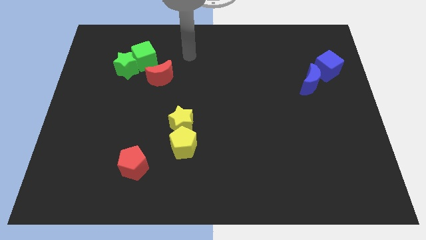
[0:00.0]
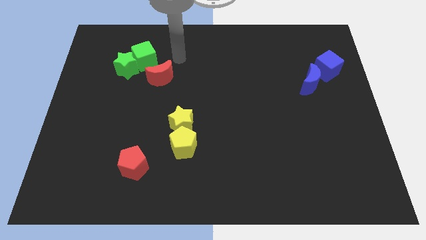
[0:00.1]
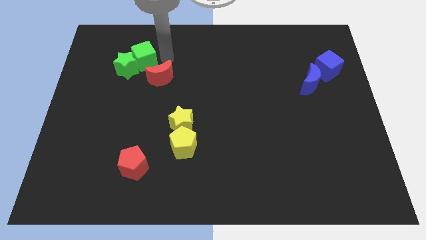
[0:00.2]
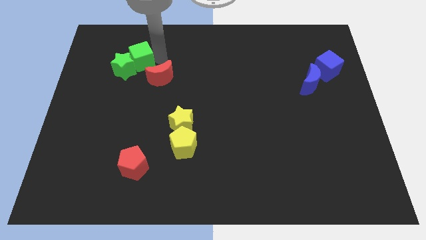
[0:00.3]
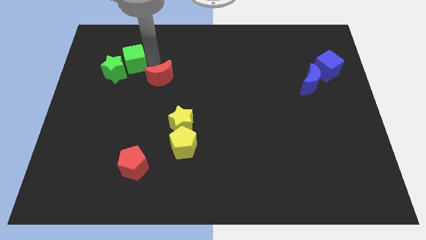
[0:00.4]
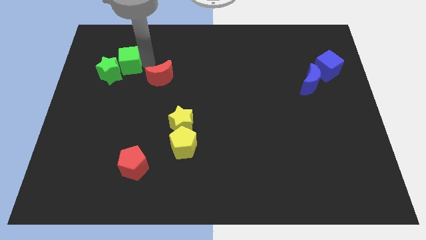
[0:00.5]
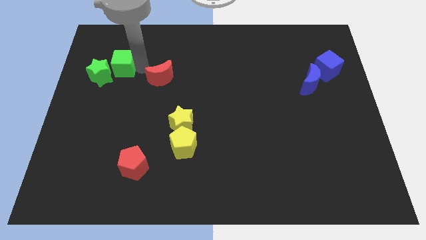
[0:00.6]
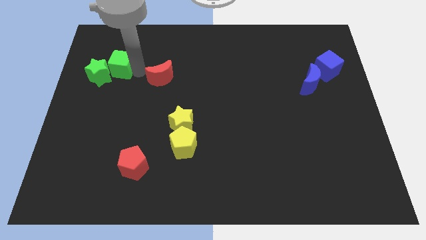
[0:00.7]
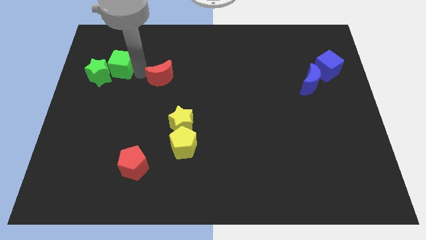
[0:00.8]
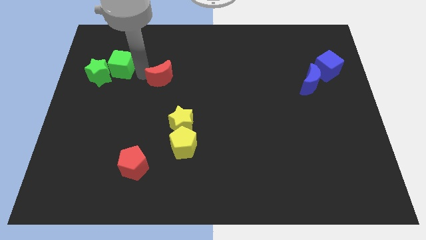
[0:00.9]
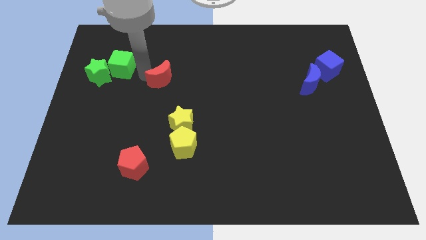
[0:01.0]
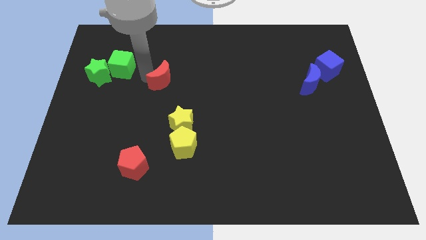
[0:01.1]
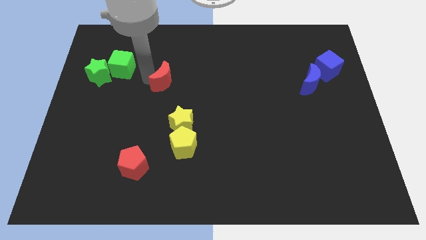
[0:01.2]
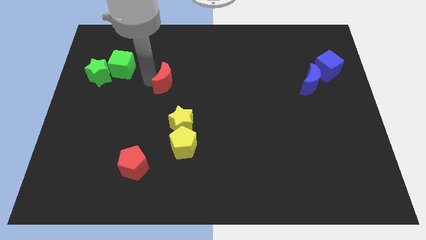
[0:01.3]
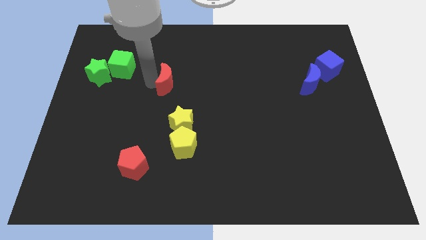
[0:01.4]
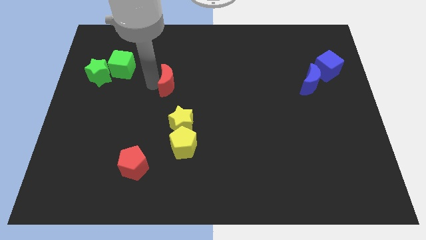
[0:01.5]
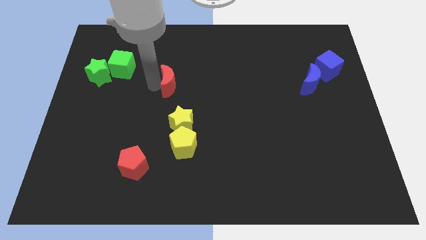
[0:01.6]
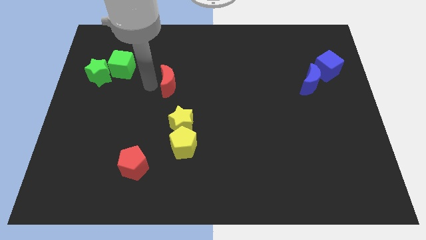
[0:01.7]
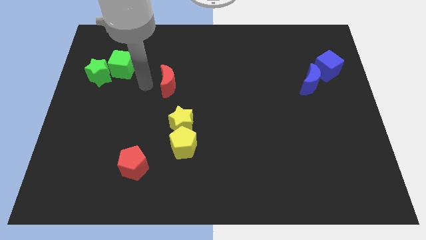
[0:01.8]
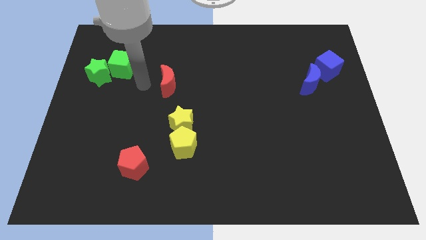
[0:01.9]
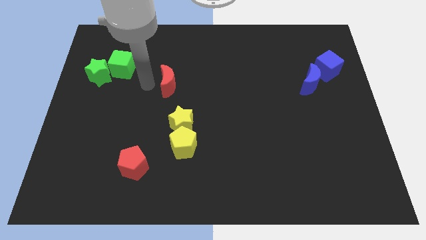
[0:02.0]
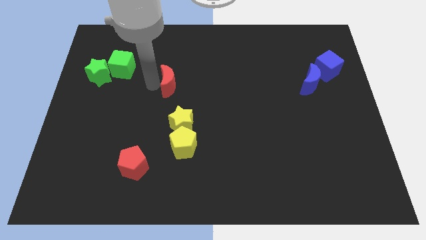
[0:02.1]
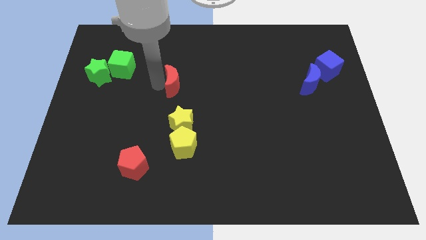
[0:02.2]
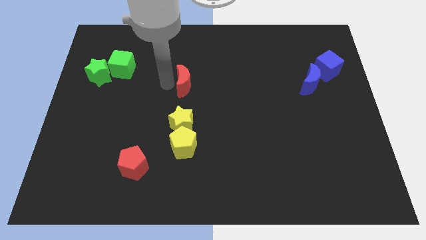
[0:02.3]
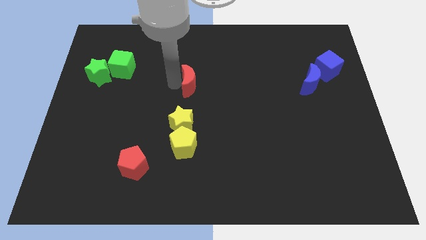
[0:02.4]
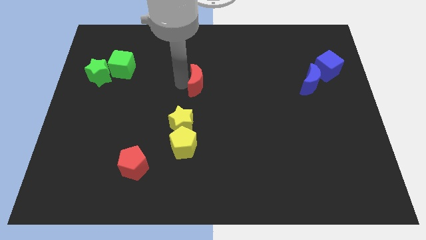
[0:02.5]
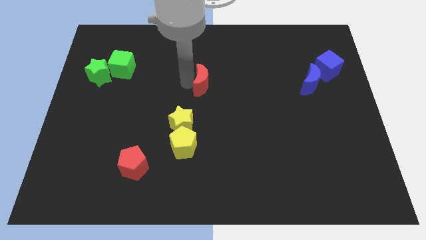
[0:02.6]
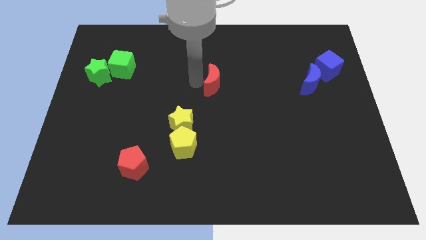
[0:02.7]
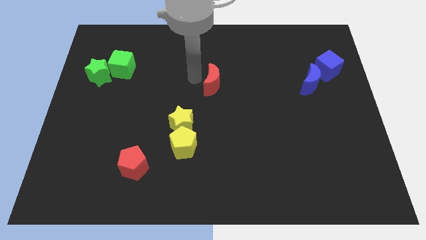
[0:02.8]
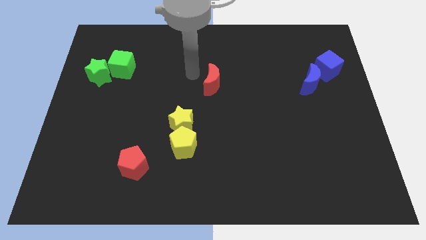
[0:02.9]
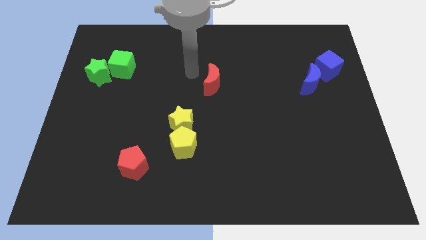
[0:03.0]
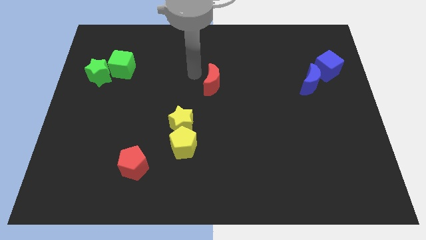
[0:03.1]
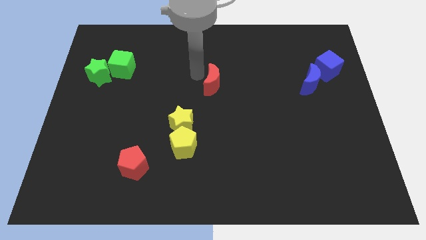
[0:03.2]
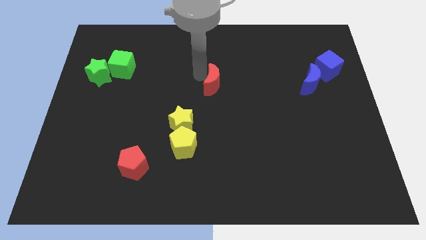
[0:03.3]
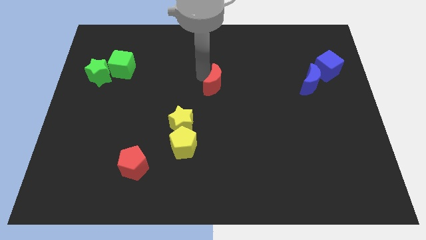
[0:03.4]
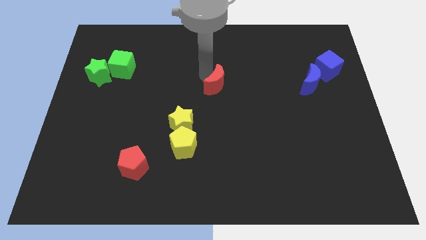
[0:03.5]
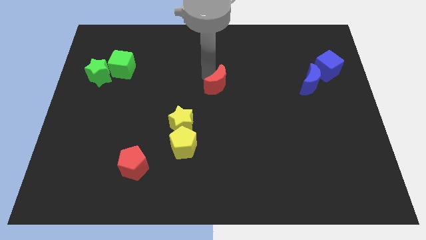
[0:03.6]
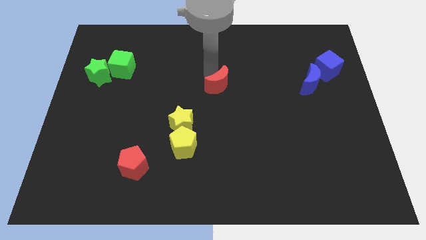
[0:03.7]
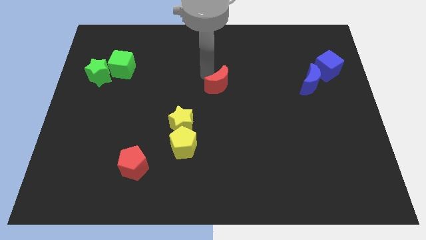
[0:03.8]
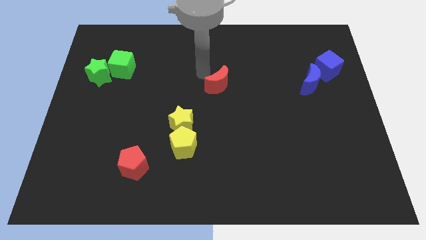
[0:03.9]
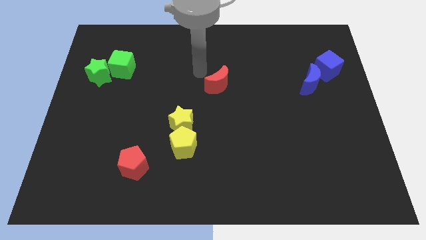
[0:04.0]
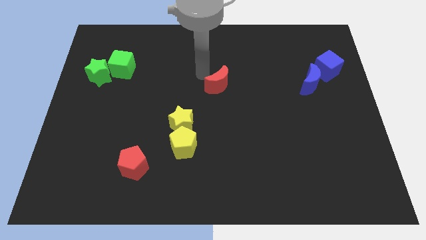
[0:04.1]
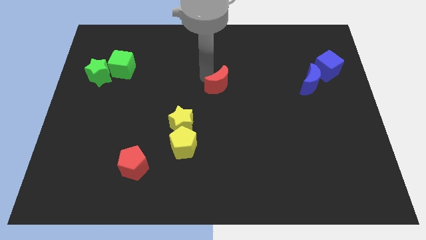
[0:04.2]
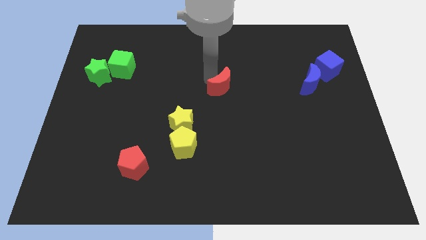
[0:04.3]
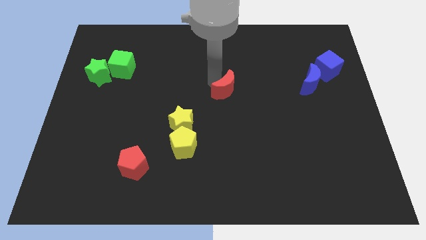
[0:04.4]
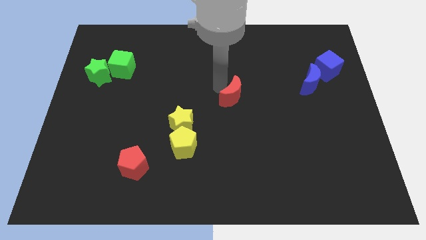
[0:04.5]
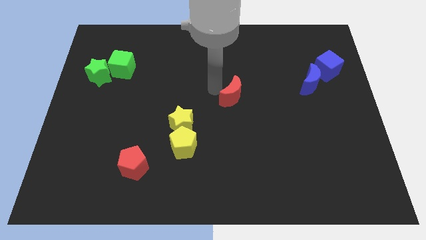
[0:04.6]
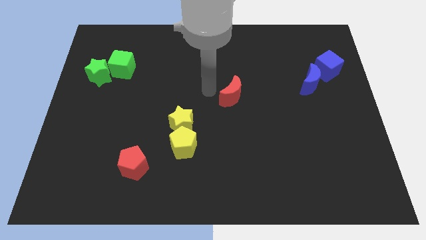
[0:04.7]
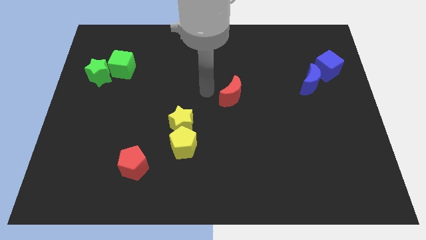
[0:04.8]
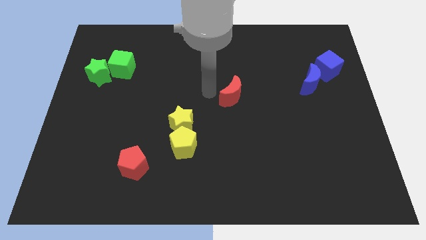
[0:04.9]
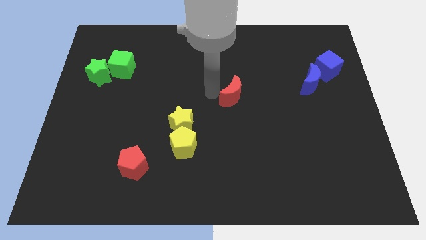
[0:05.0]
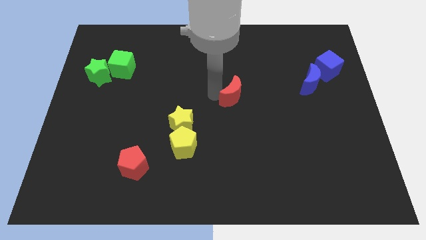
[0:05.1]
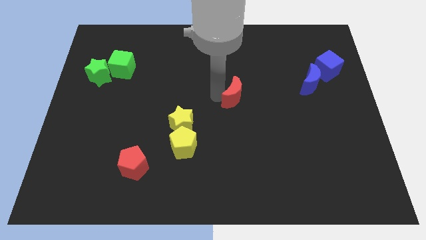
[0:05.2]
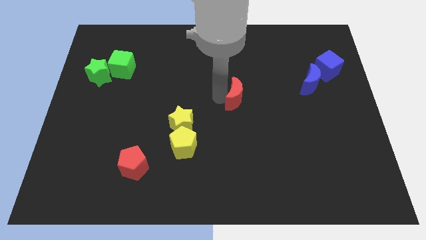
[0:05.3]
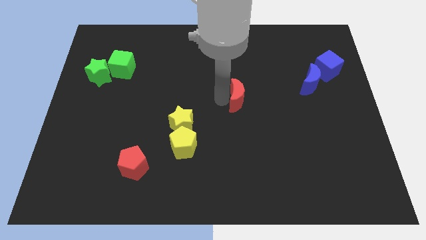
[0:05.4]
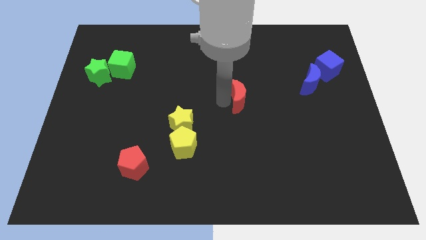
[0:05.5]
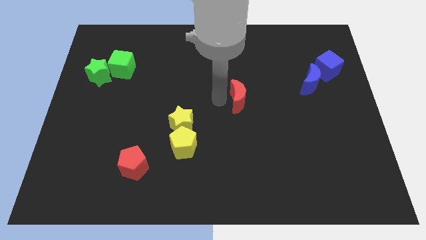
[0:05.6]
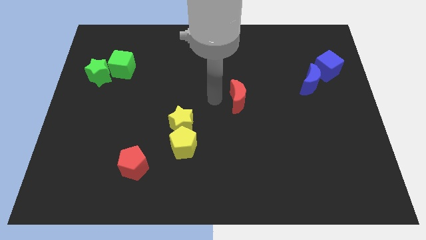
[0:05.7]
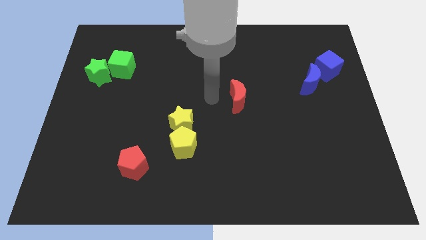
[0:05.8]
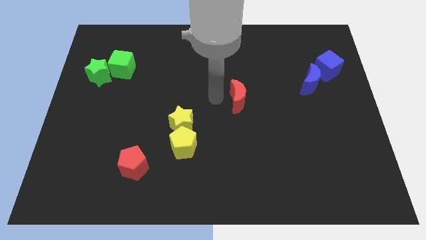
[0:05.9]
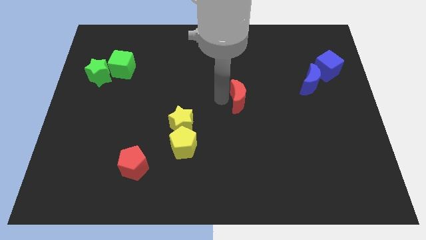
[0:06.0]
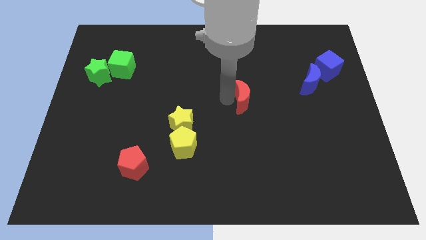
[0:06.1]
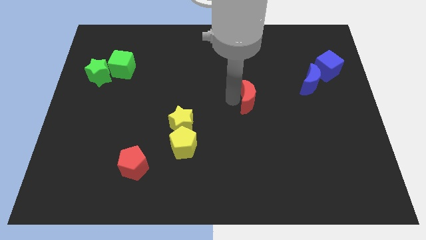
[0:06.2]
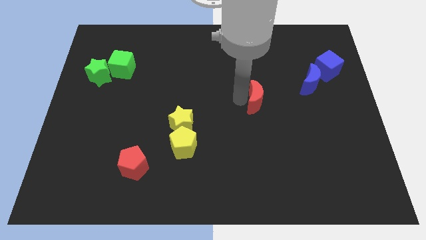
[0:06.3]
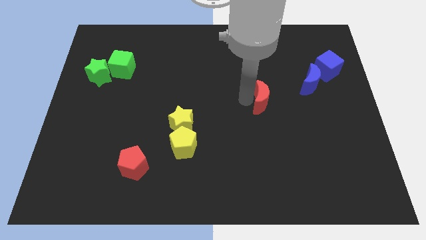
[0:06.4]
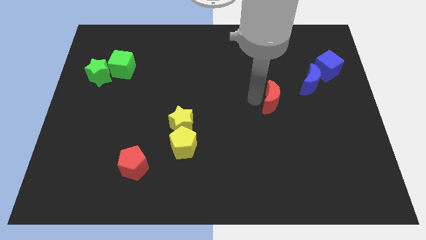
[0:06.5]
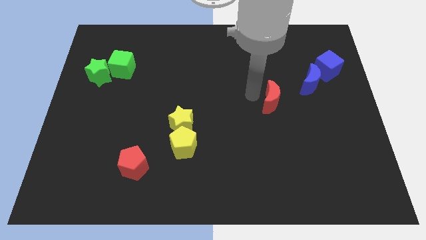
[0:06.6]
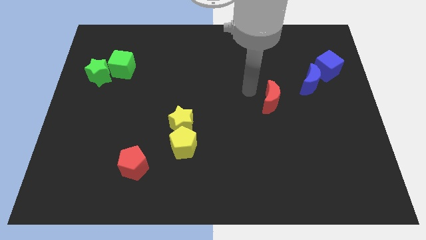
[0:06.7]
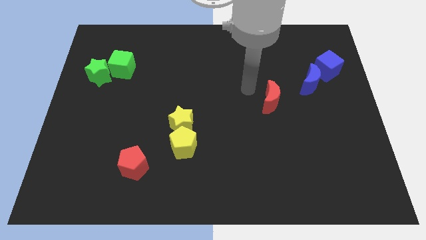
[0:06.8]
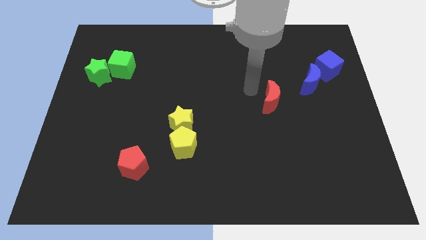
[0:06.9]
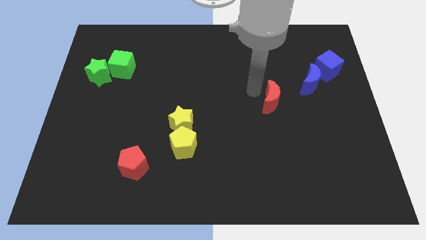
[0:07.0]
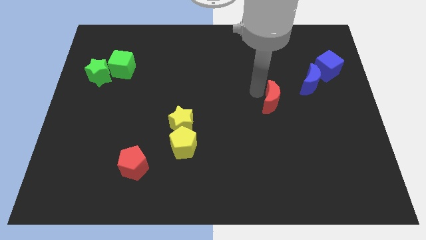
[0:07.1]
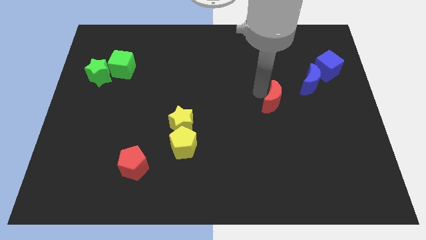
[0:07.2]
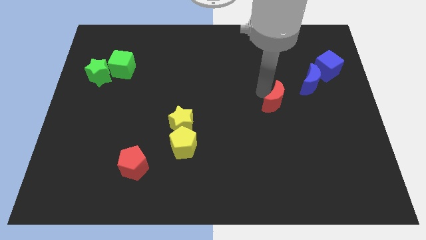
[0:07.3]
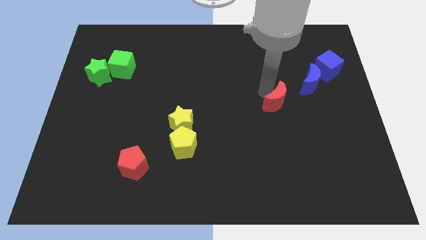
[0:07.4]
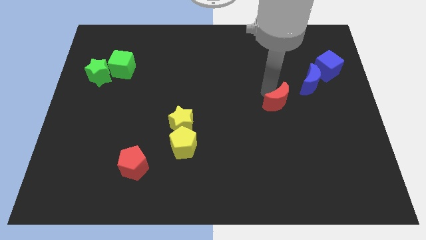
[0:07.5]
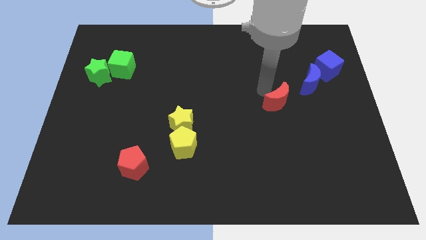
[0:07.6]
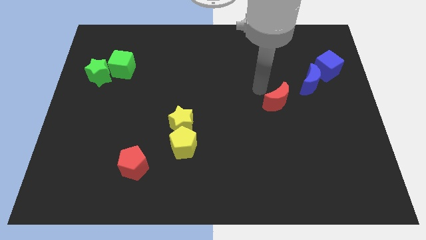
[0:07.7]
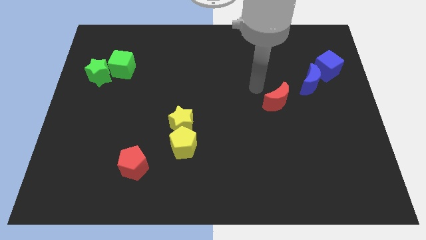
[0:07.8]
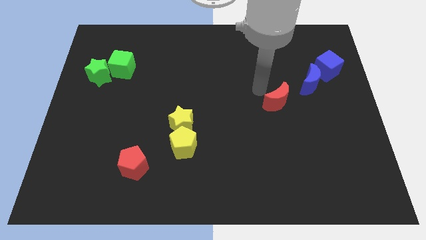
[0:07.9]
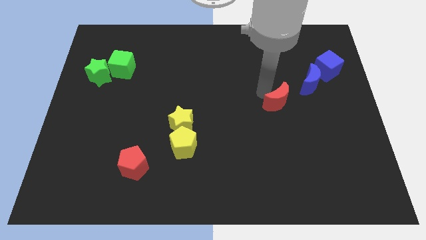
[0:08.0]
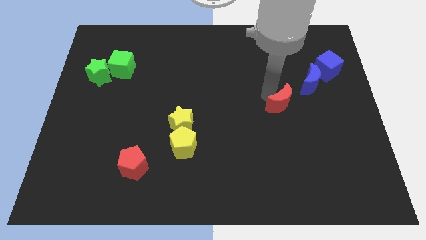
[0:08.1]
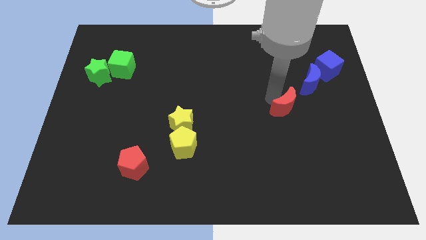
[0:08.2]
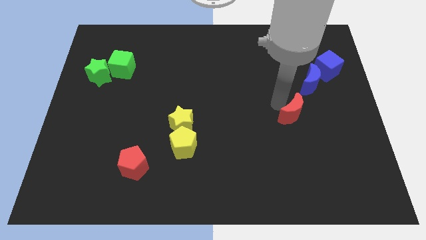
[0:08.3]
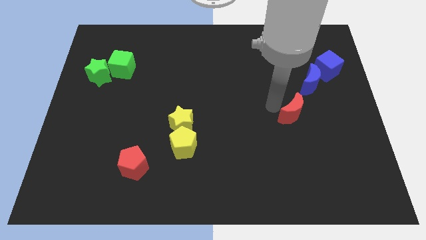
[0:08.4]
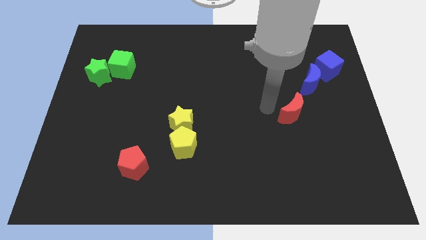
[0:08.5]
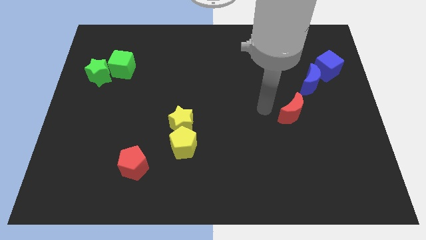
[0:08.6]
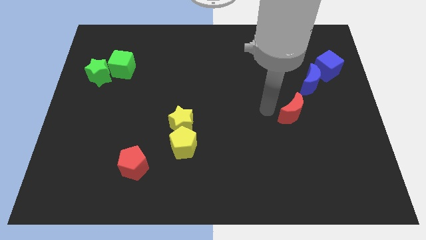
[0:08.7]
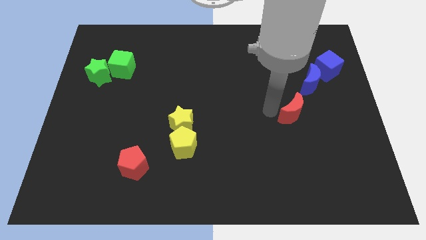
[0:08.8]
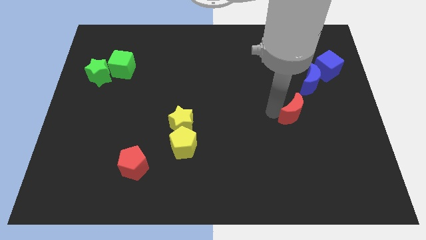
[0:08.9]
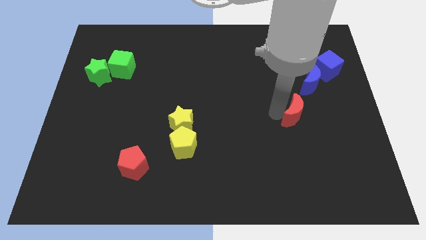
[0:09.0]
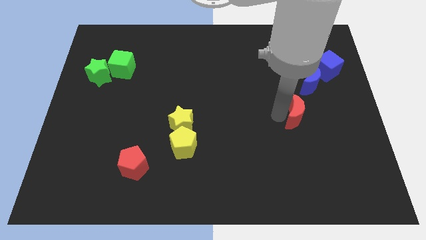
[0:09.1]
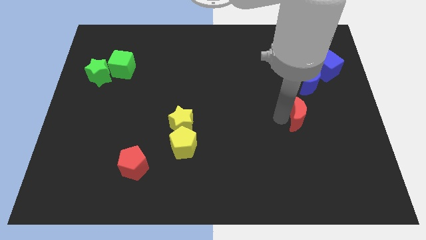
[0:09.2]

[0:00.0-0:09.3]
push the red moon to the bottom side of the blue moon
